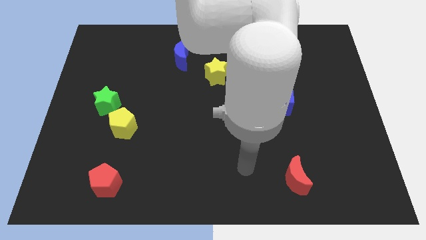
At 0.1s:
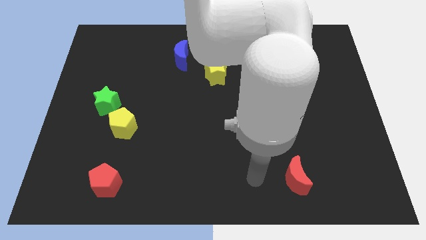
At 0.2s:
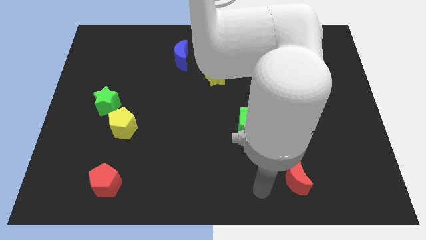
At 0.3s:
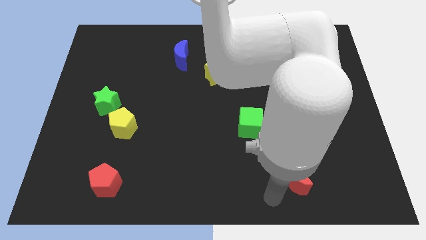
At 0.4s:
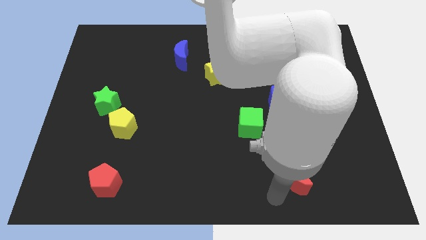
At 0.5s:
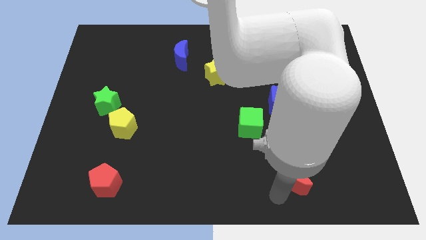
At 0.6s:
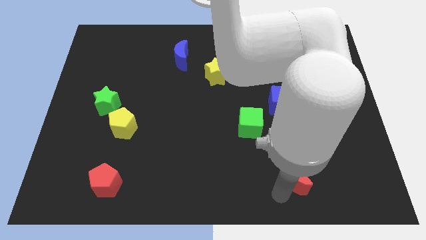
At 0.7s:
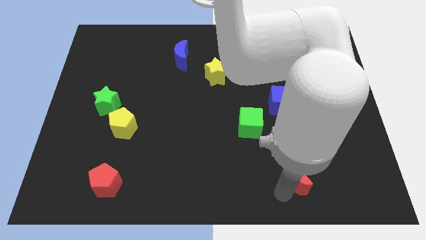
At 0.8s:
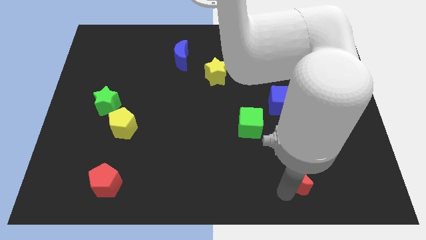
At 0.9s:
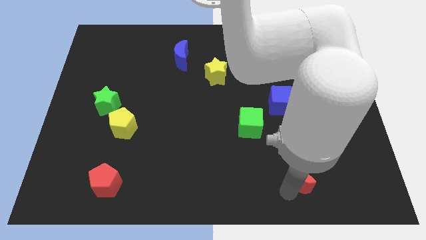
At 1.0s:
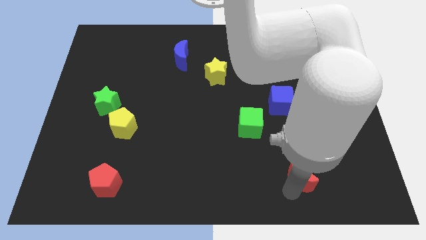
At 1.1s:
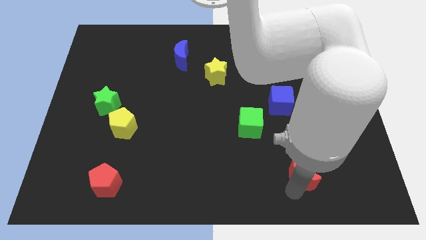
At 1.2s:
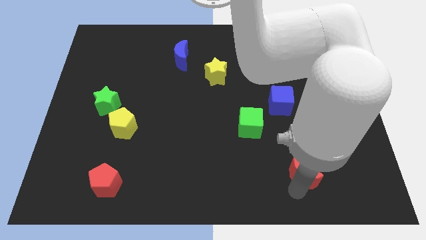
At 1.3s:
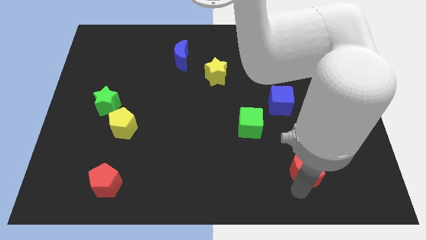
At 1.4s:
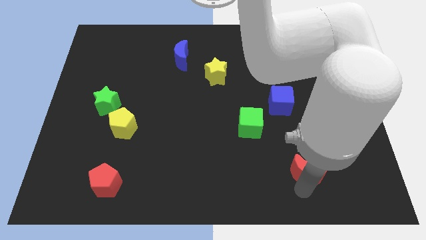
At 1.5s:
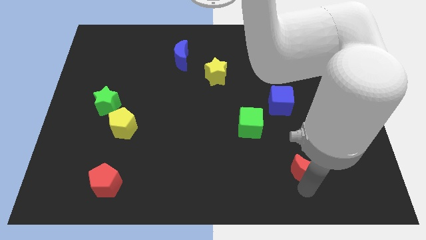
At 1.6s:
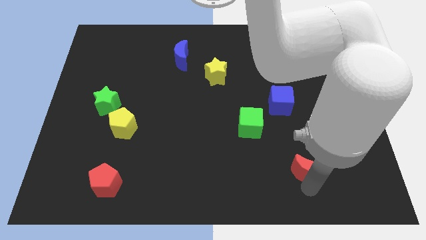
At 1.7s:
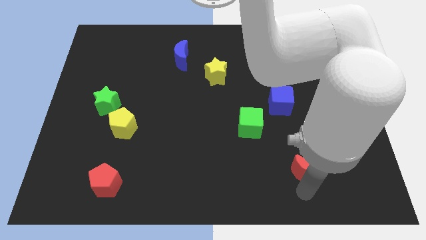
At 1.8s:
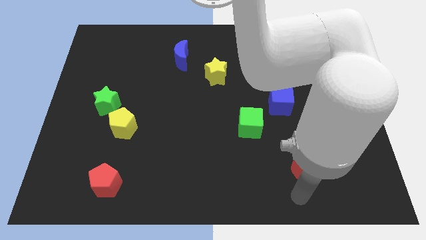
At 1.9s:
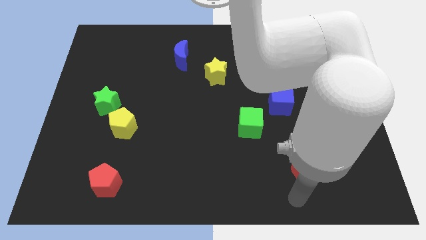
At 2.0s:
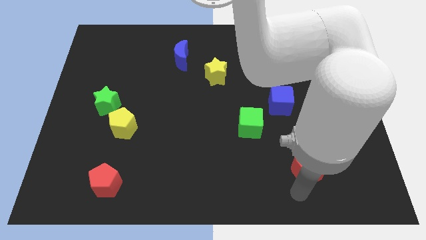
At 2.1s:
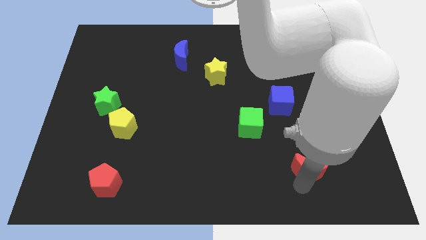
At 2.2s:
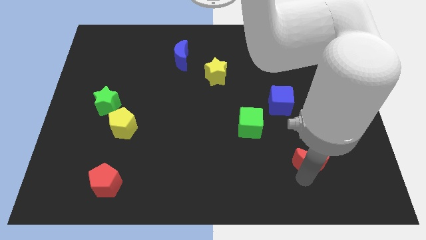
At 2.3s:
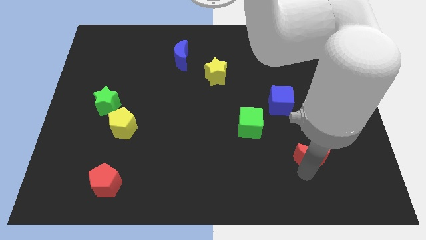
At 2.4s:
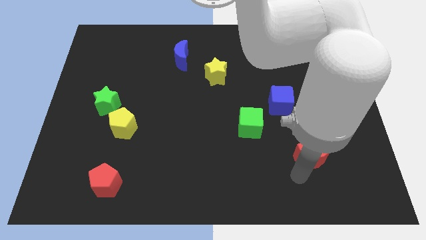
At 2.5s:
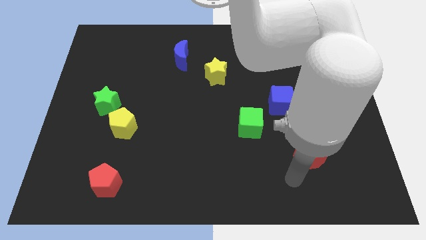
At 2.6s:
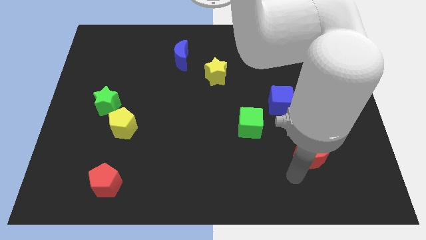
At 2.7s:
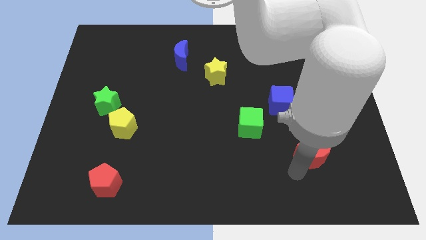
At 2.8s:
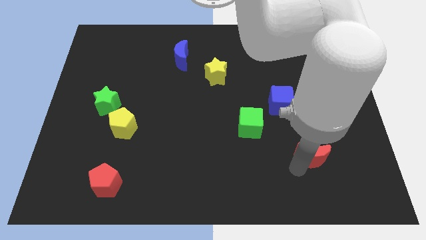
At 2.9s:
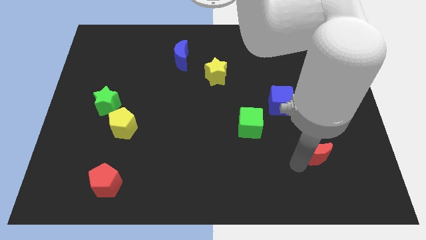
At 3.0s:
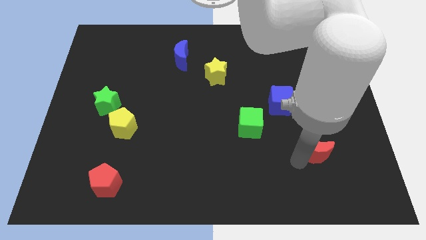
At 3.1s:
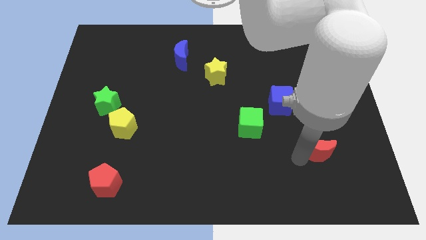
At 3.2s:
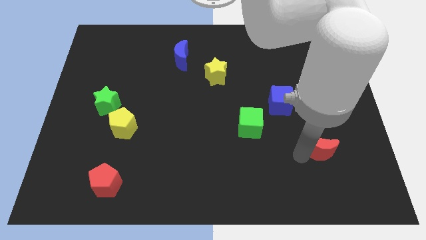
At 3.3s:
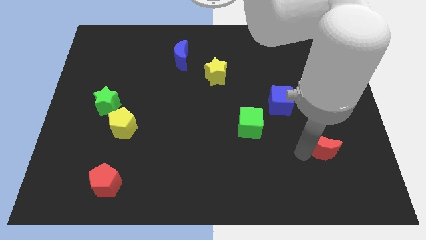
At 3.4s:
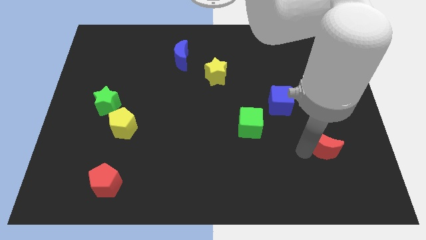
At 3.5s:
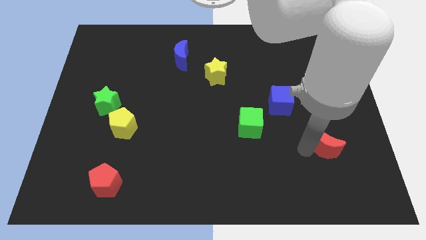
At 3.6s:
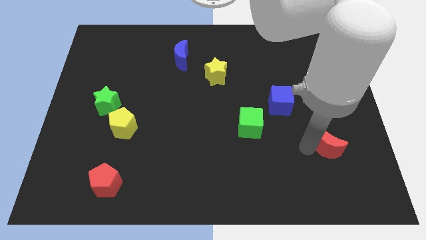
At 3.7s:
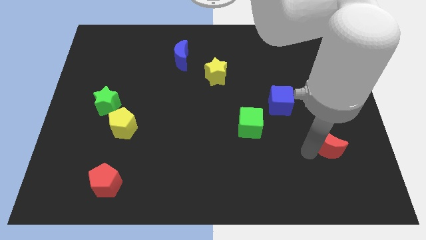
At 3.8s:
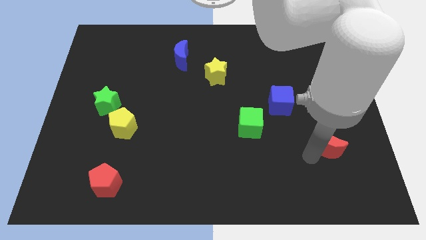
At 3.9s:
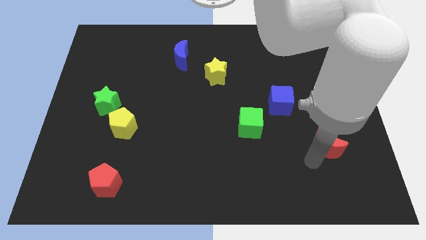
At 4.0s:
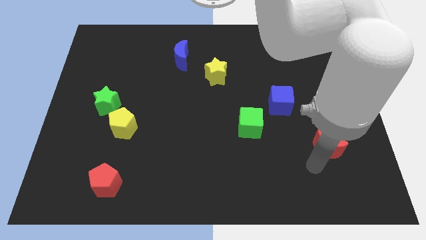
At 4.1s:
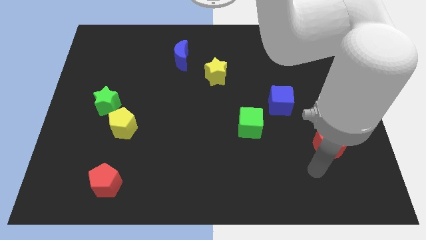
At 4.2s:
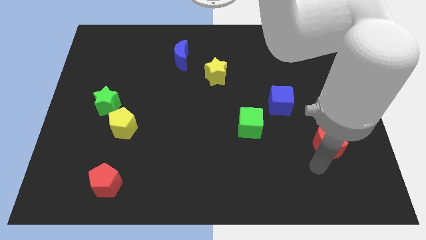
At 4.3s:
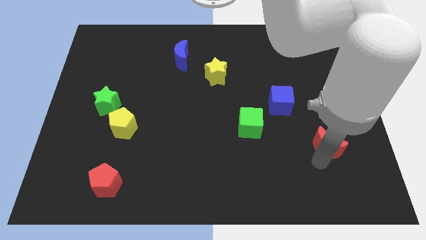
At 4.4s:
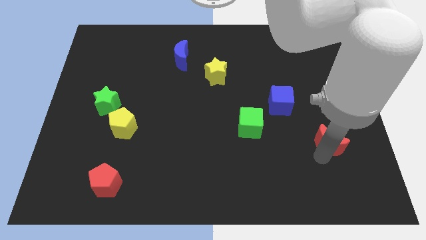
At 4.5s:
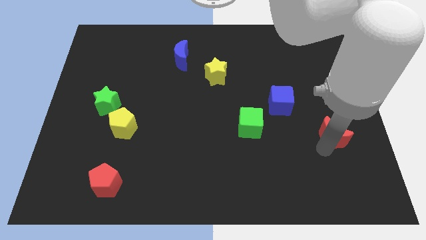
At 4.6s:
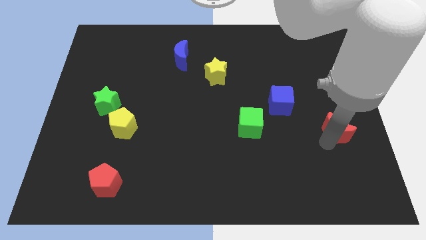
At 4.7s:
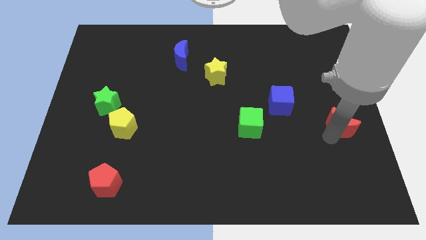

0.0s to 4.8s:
move the red moon to the right side

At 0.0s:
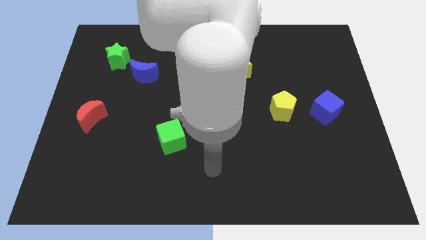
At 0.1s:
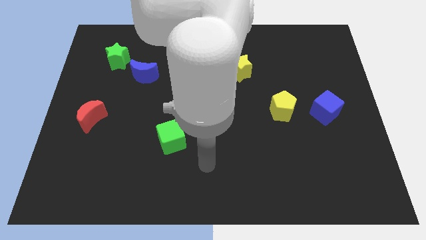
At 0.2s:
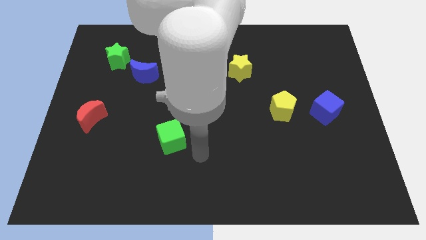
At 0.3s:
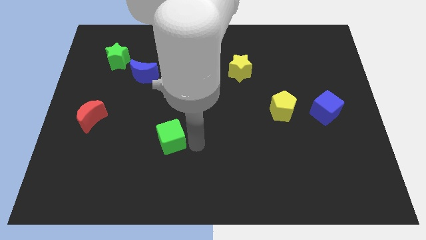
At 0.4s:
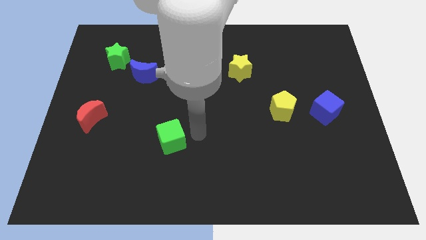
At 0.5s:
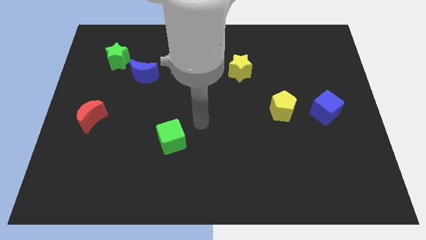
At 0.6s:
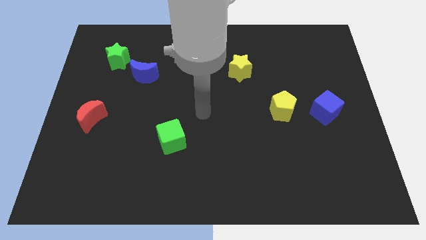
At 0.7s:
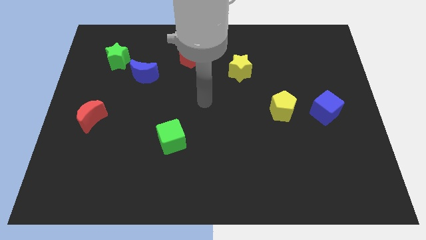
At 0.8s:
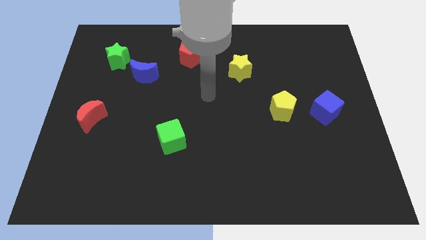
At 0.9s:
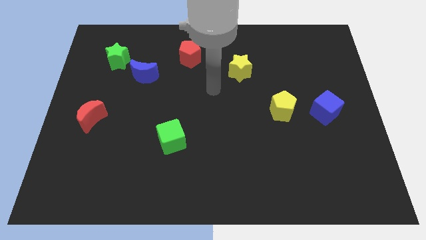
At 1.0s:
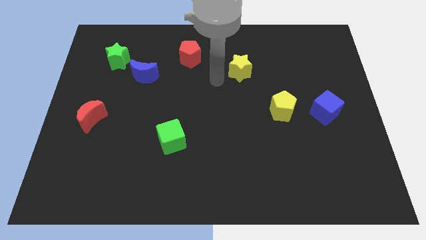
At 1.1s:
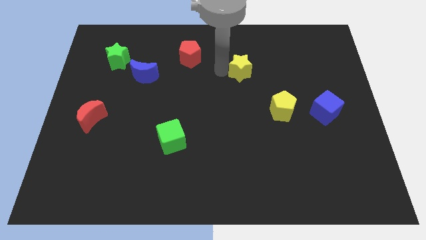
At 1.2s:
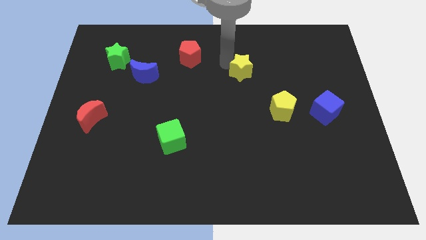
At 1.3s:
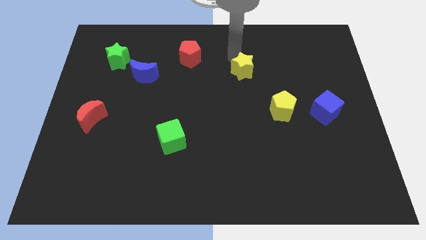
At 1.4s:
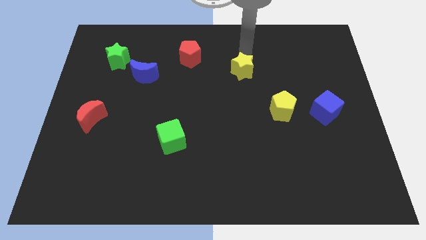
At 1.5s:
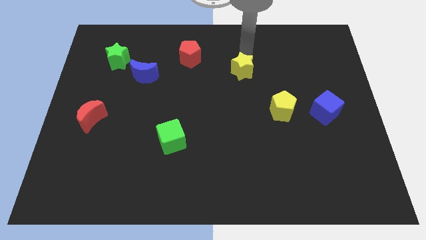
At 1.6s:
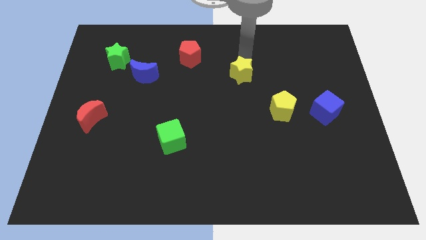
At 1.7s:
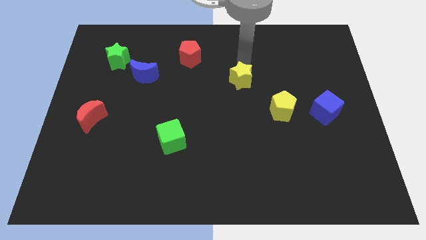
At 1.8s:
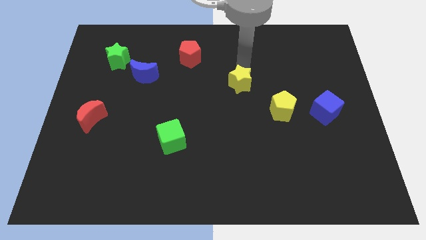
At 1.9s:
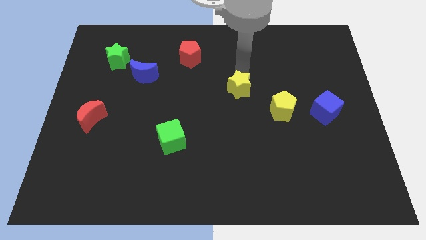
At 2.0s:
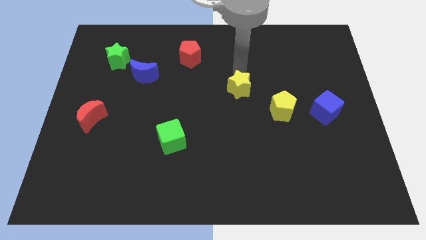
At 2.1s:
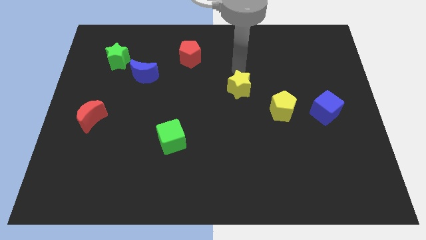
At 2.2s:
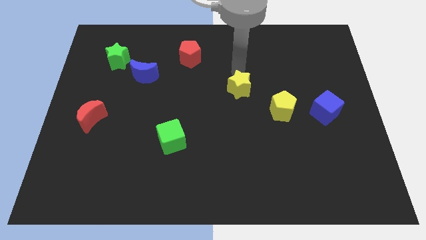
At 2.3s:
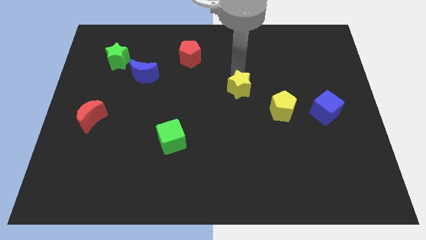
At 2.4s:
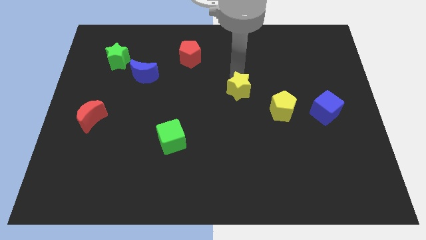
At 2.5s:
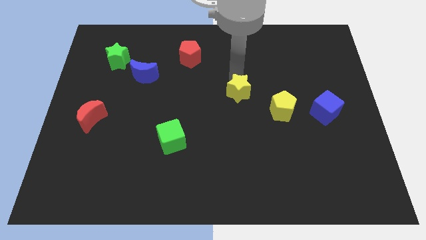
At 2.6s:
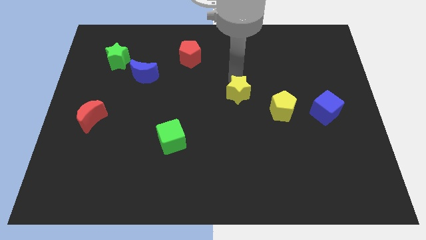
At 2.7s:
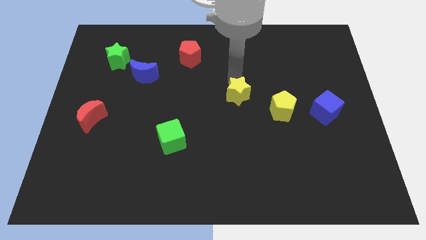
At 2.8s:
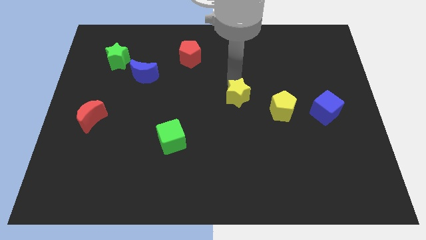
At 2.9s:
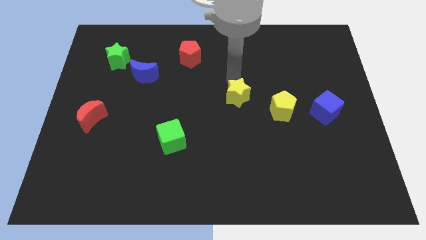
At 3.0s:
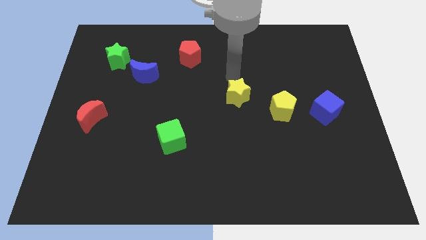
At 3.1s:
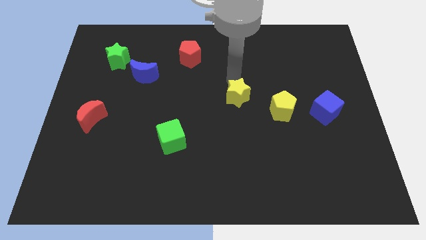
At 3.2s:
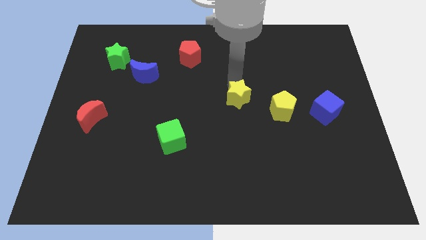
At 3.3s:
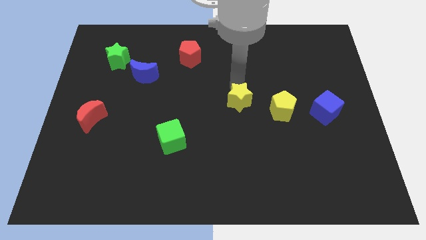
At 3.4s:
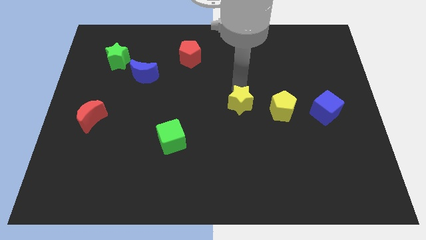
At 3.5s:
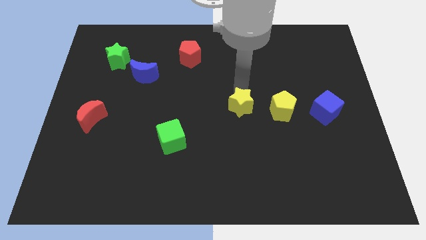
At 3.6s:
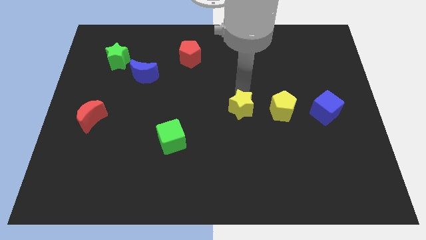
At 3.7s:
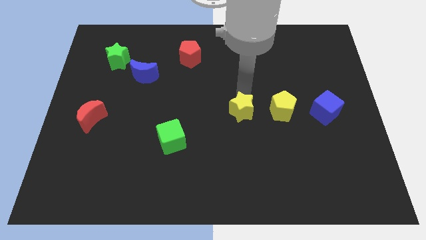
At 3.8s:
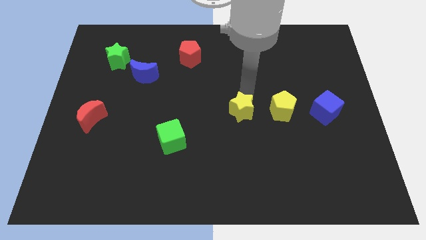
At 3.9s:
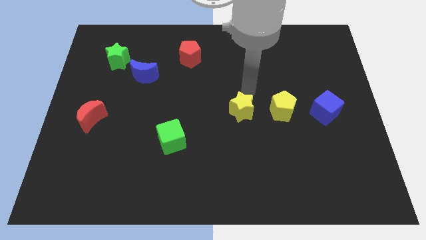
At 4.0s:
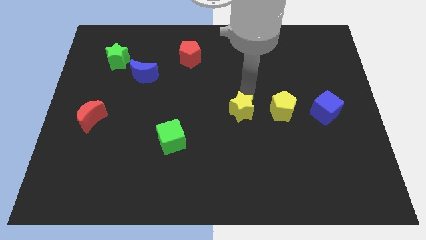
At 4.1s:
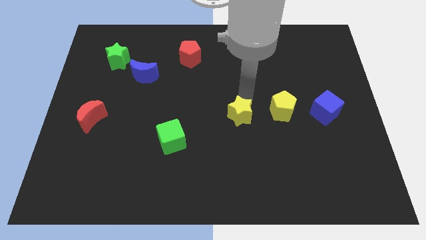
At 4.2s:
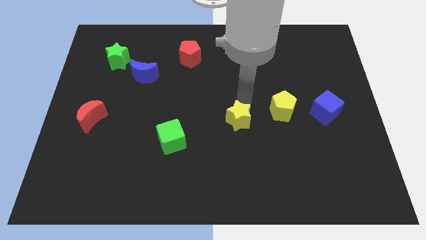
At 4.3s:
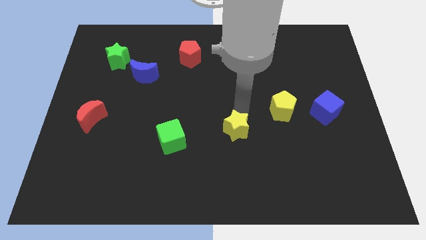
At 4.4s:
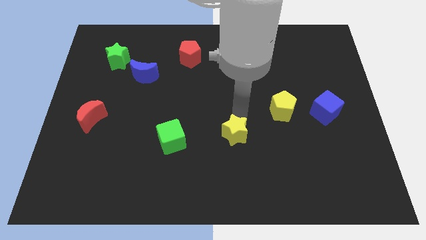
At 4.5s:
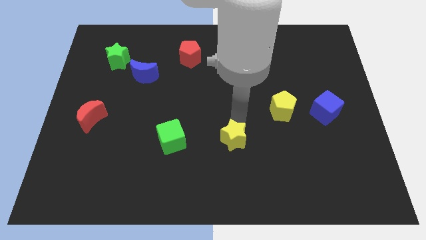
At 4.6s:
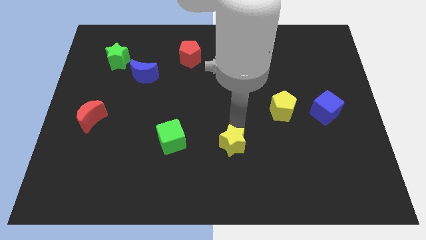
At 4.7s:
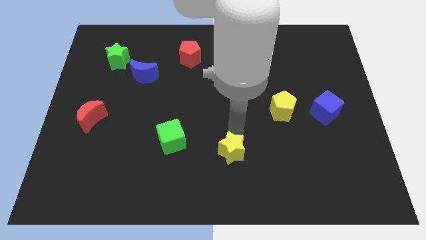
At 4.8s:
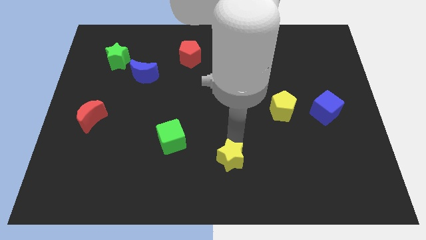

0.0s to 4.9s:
move the yellow star to the bottom side
